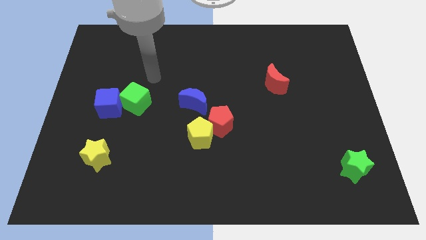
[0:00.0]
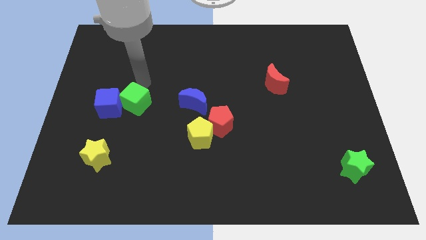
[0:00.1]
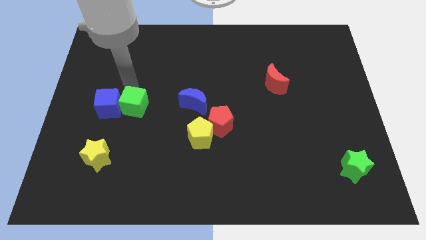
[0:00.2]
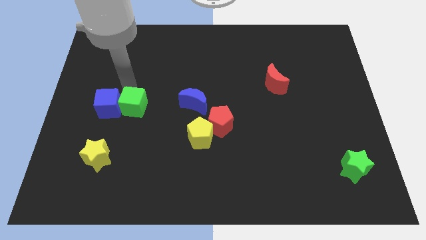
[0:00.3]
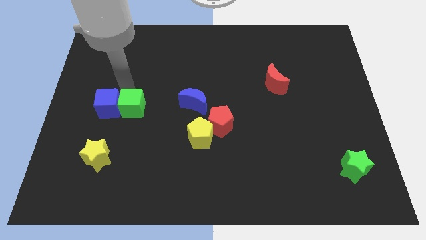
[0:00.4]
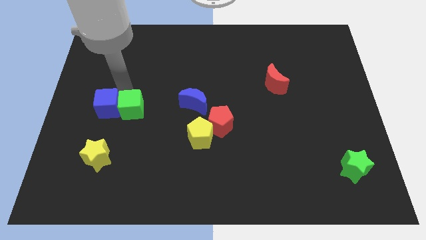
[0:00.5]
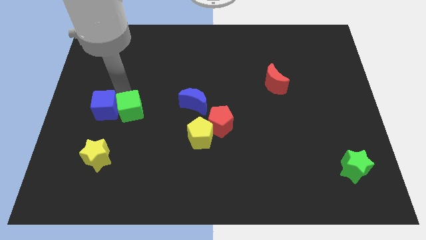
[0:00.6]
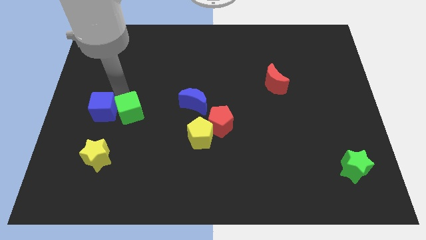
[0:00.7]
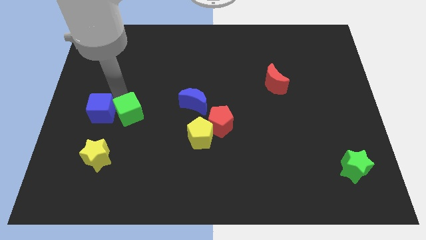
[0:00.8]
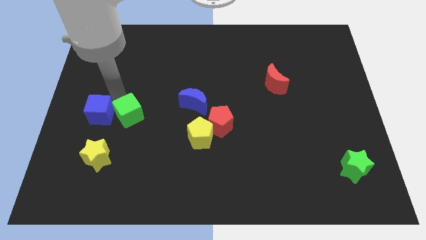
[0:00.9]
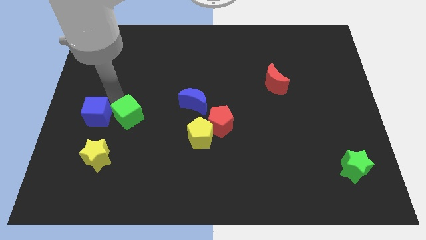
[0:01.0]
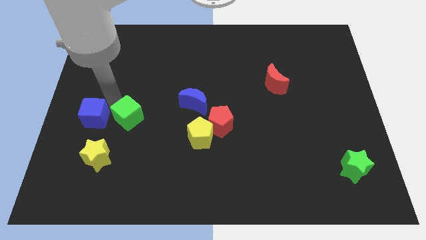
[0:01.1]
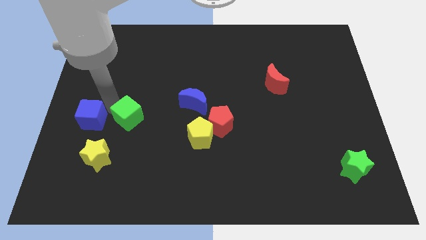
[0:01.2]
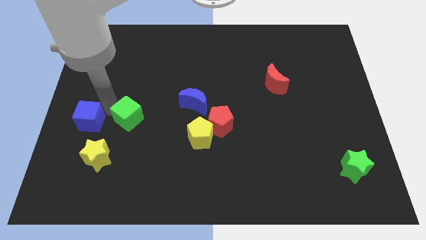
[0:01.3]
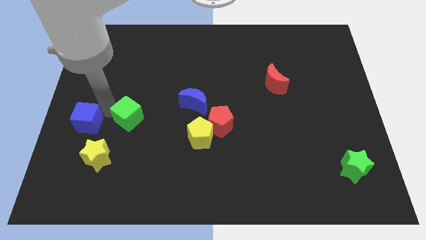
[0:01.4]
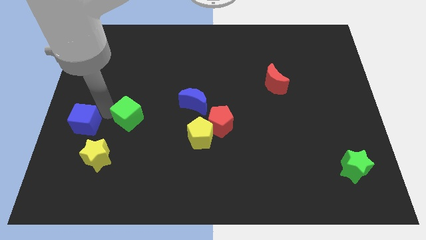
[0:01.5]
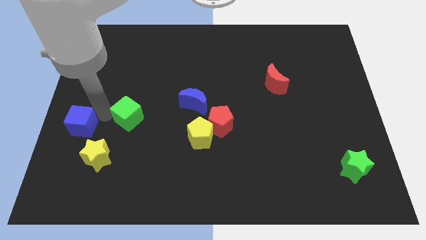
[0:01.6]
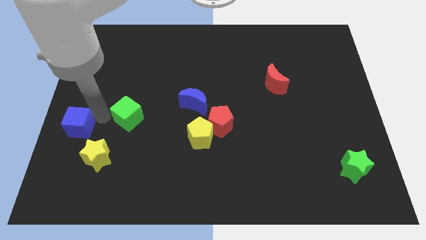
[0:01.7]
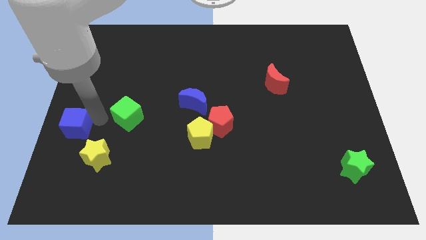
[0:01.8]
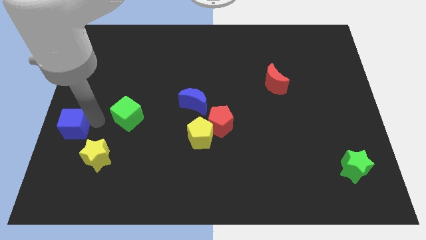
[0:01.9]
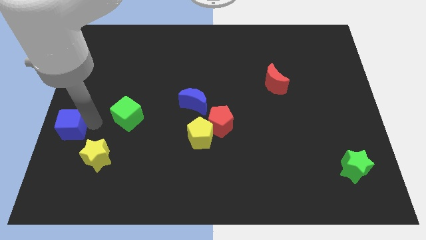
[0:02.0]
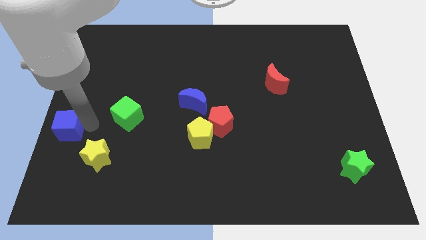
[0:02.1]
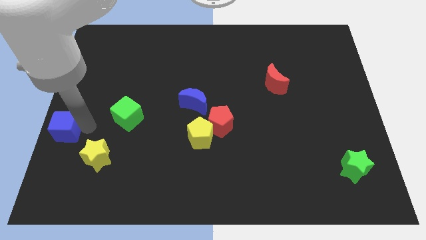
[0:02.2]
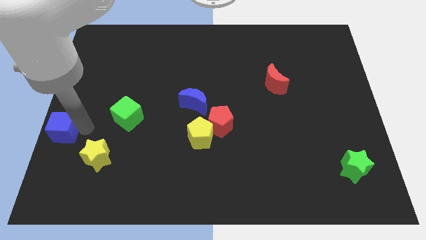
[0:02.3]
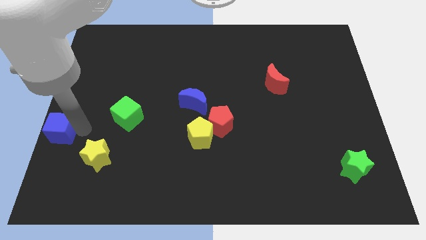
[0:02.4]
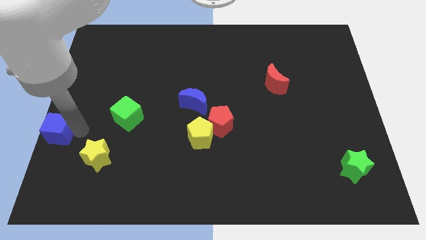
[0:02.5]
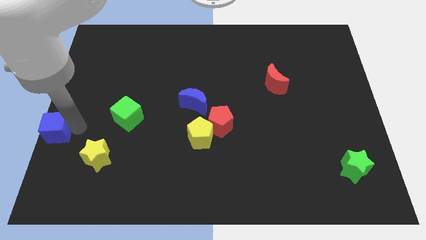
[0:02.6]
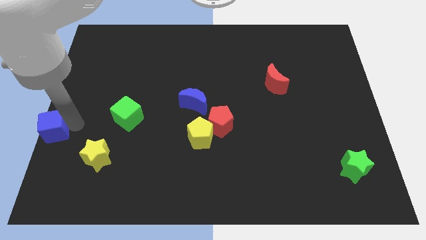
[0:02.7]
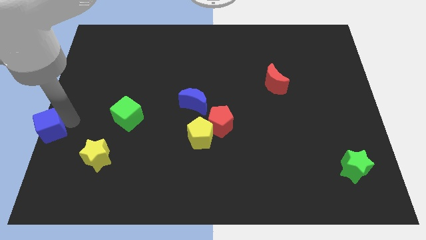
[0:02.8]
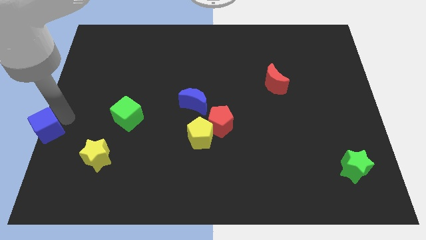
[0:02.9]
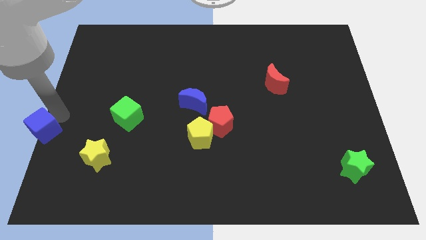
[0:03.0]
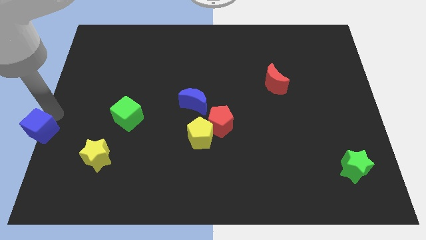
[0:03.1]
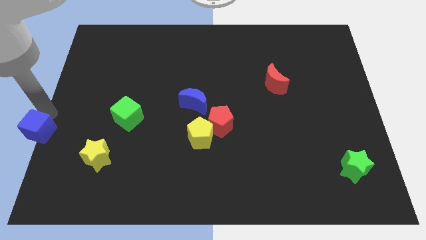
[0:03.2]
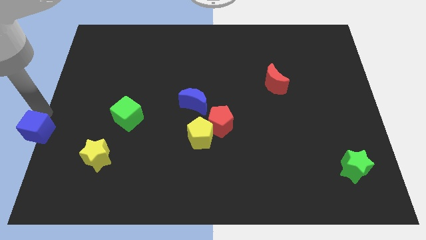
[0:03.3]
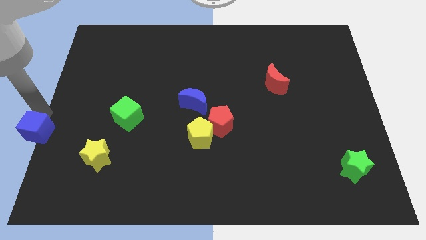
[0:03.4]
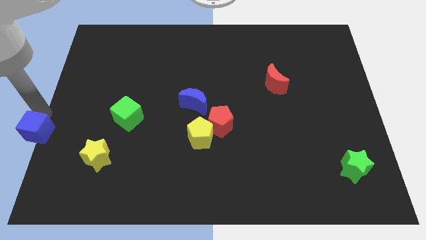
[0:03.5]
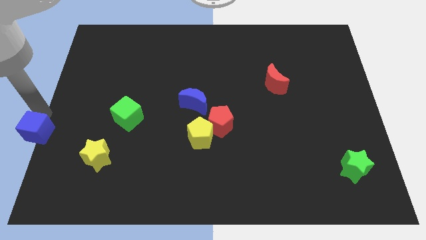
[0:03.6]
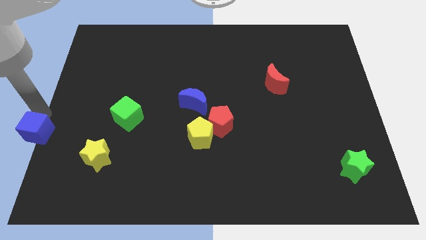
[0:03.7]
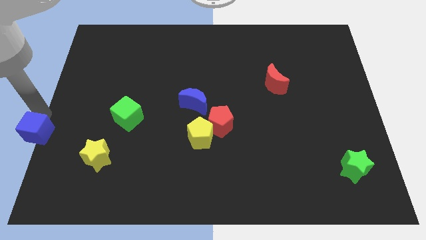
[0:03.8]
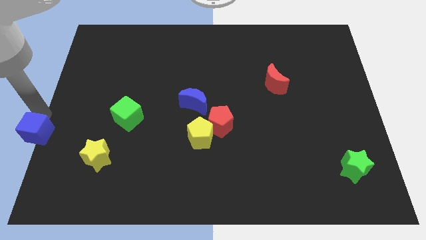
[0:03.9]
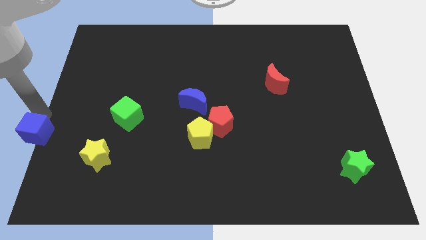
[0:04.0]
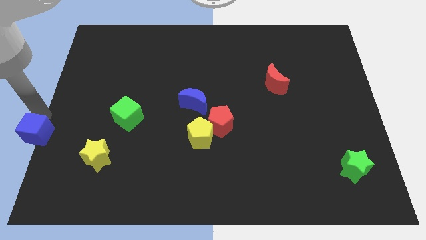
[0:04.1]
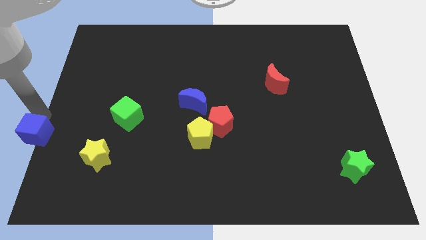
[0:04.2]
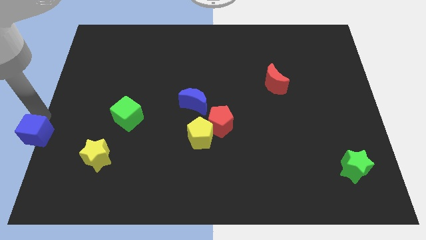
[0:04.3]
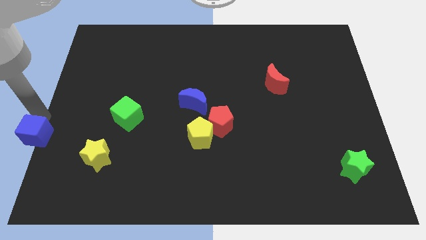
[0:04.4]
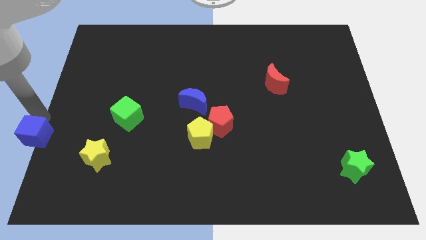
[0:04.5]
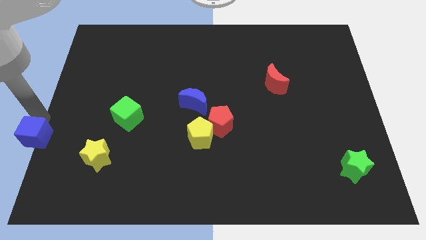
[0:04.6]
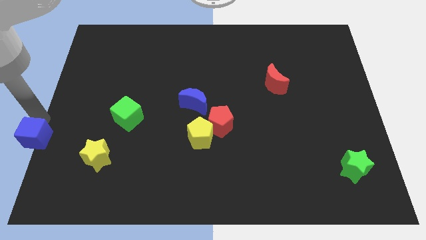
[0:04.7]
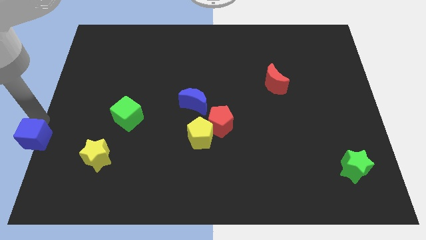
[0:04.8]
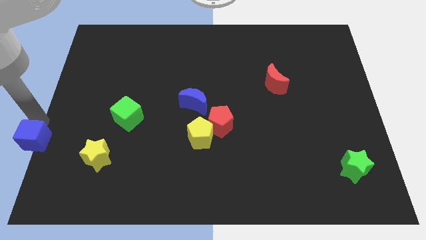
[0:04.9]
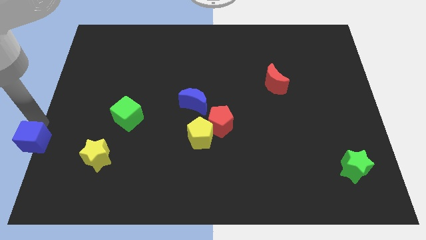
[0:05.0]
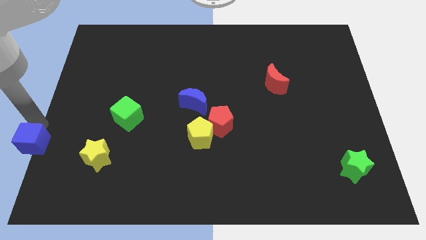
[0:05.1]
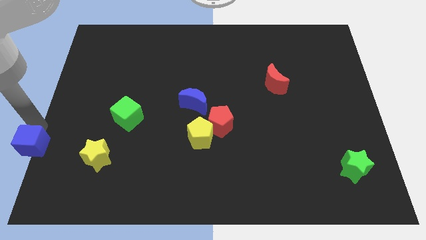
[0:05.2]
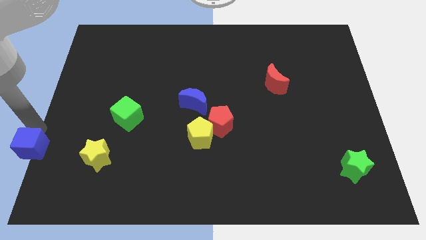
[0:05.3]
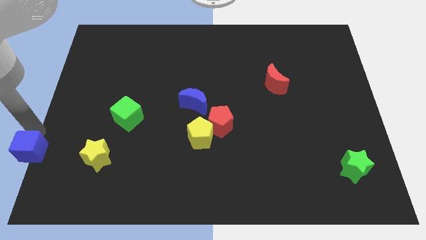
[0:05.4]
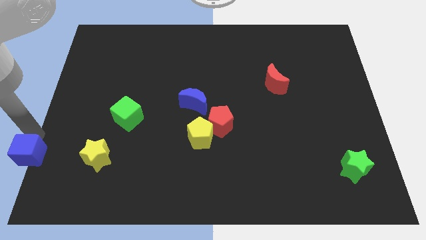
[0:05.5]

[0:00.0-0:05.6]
slide the blue cube to the bottom left corner

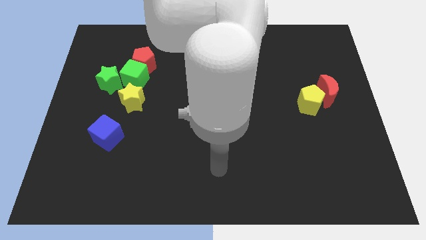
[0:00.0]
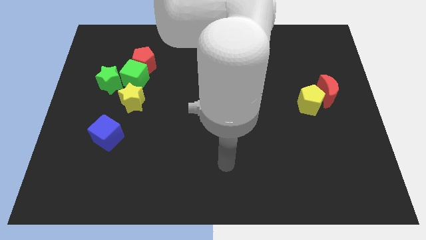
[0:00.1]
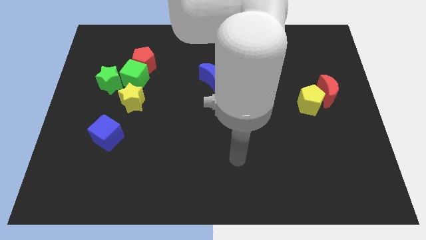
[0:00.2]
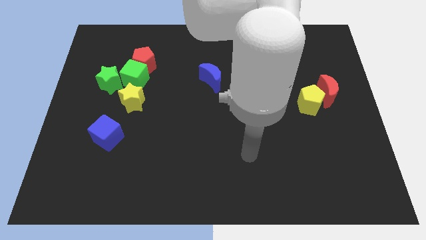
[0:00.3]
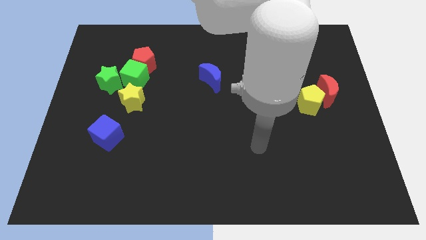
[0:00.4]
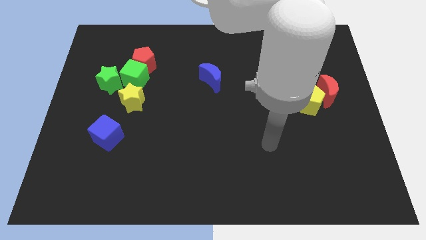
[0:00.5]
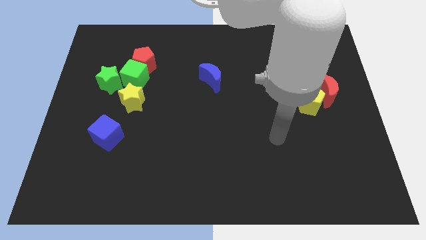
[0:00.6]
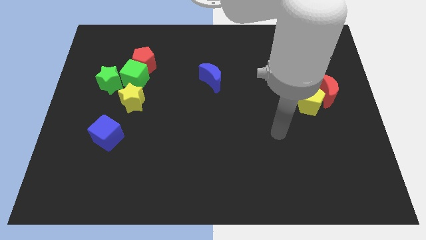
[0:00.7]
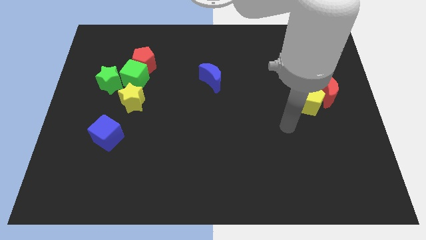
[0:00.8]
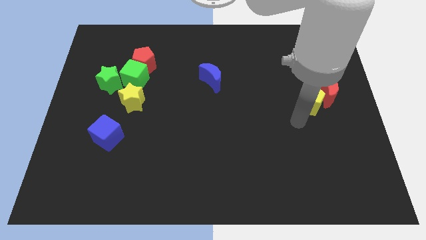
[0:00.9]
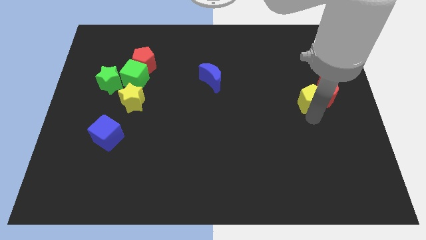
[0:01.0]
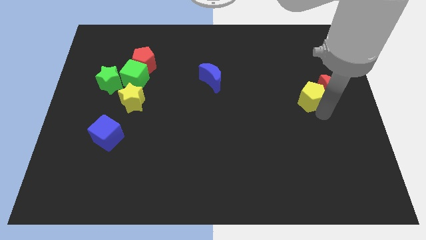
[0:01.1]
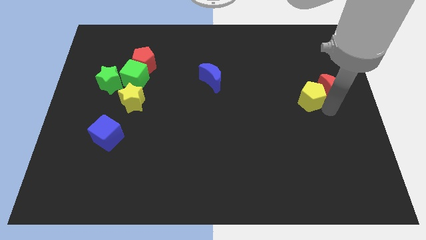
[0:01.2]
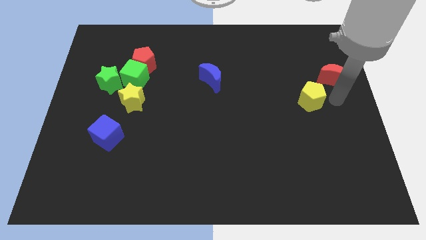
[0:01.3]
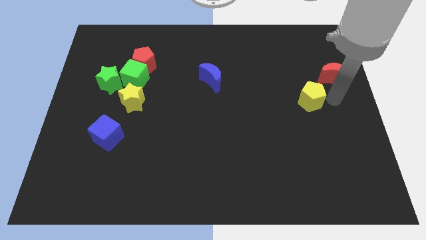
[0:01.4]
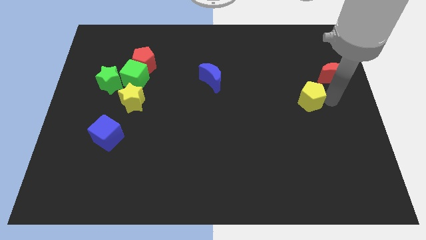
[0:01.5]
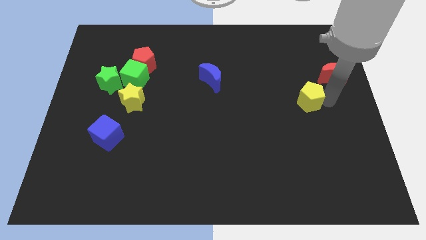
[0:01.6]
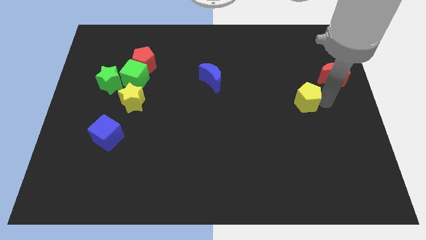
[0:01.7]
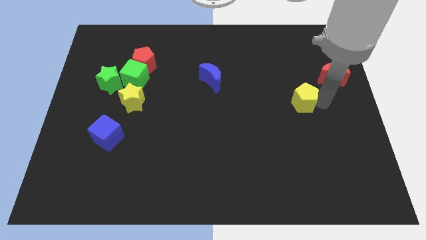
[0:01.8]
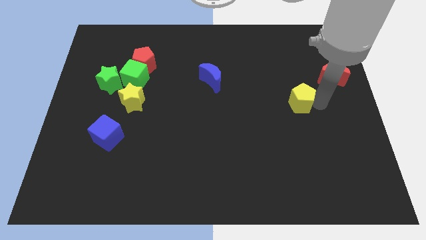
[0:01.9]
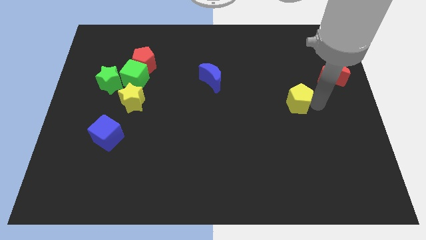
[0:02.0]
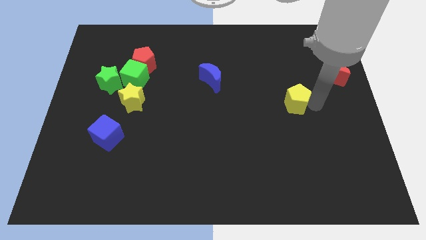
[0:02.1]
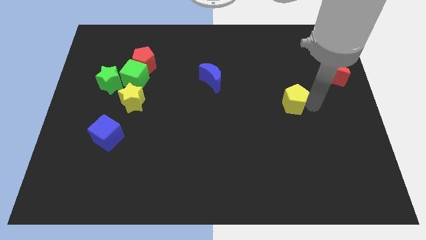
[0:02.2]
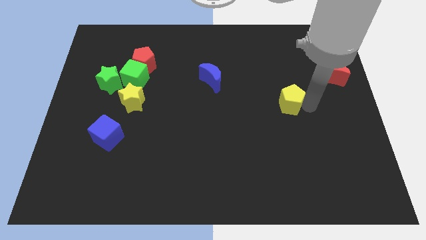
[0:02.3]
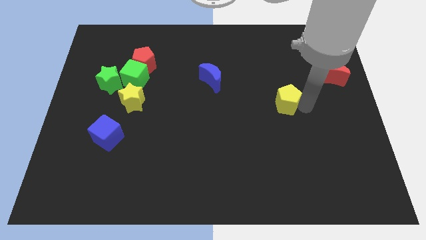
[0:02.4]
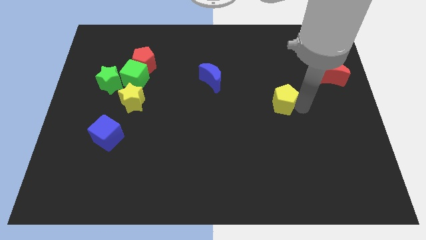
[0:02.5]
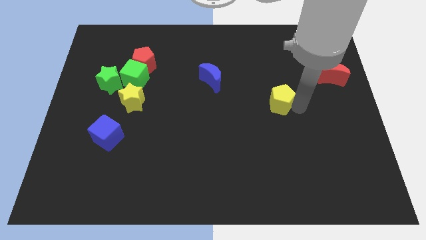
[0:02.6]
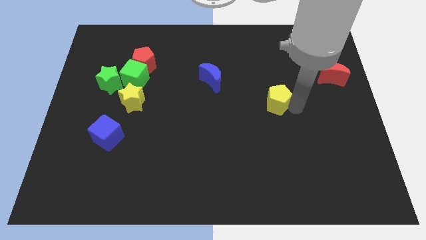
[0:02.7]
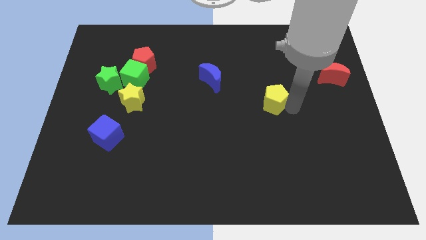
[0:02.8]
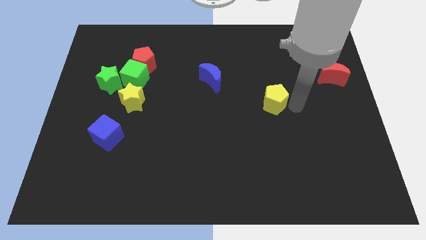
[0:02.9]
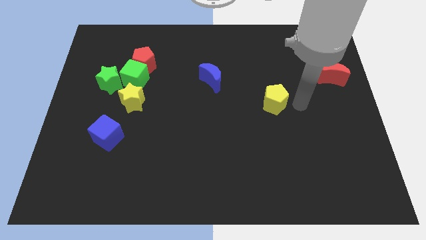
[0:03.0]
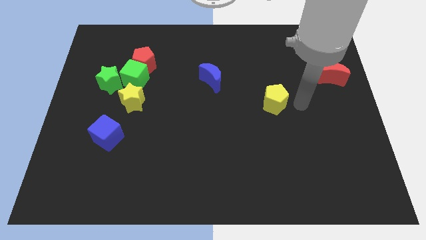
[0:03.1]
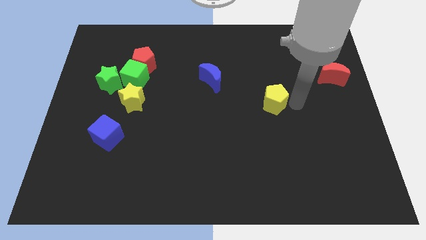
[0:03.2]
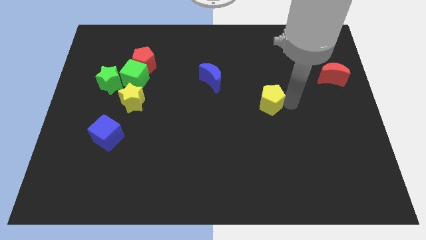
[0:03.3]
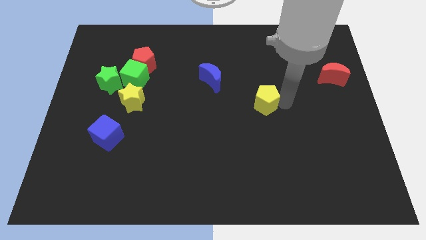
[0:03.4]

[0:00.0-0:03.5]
put the yellow pentagon to the middle of the board
